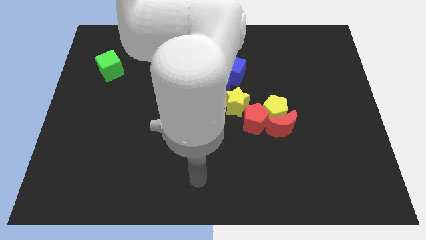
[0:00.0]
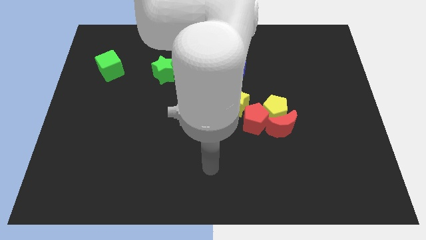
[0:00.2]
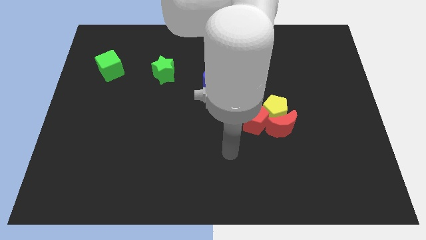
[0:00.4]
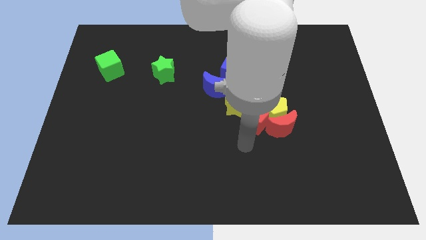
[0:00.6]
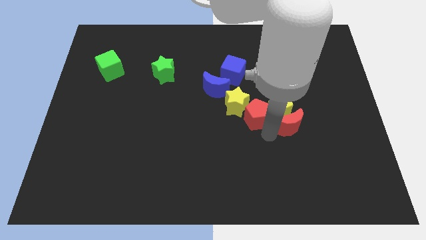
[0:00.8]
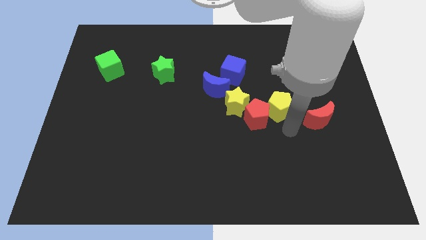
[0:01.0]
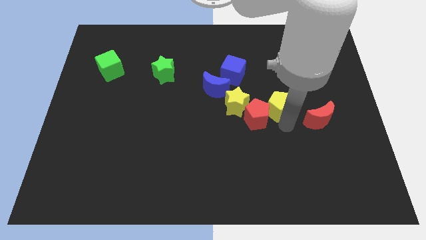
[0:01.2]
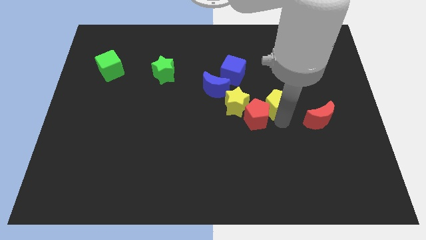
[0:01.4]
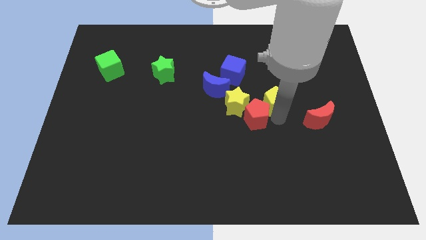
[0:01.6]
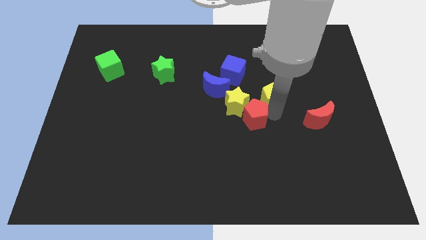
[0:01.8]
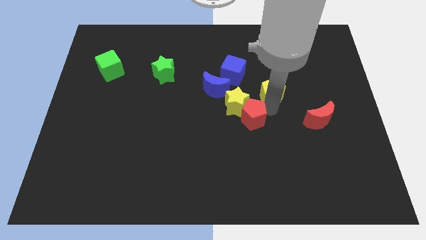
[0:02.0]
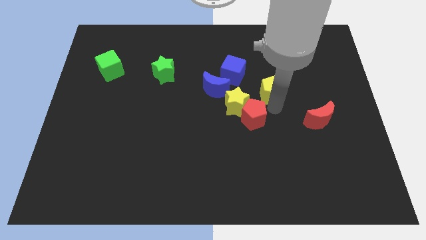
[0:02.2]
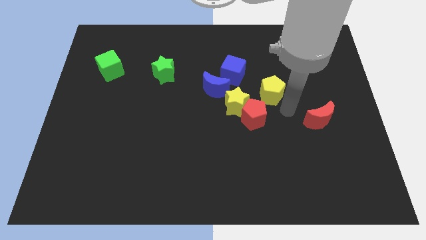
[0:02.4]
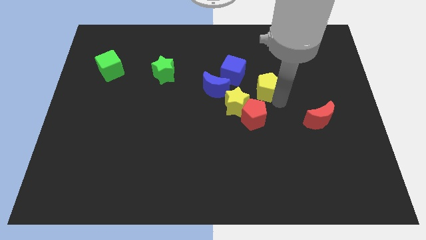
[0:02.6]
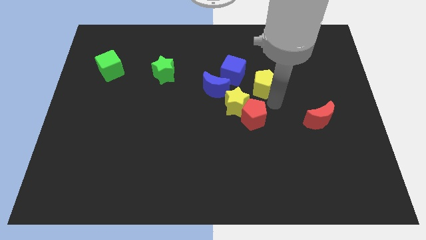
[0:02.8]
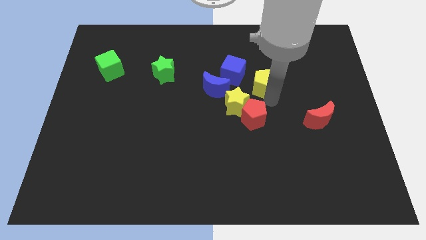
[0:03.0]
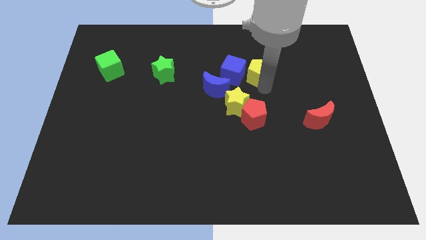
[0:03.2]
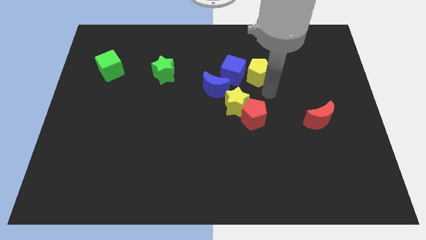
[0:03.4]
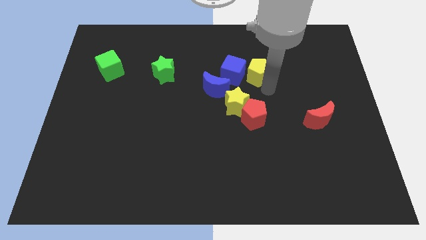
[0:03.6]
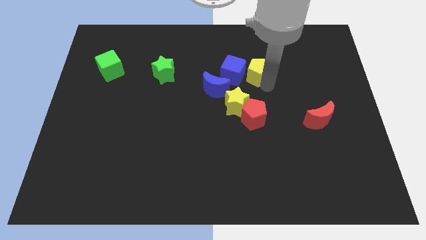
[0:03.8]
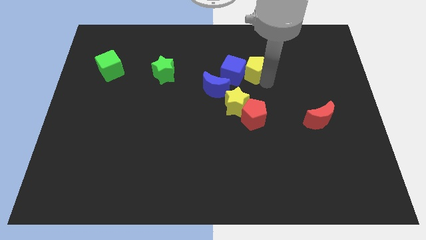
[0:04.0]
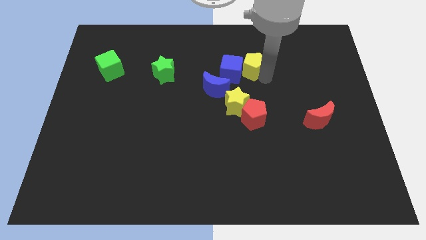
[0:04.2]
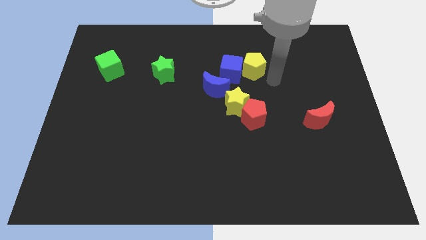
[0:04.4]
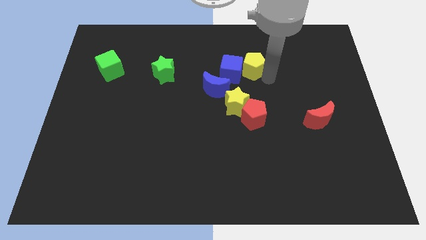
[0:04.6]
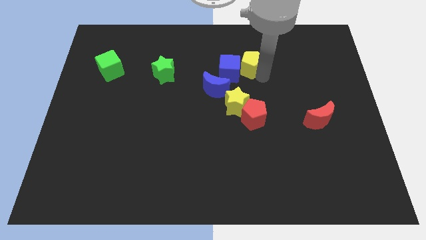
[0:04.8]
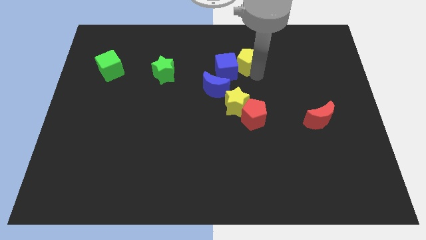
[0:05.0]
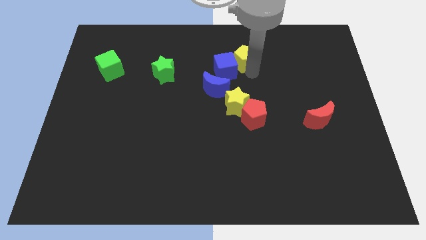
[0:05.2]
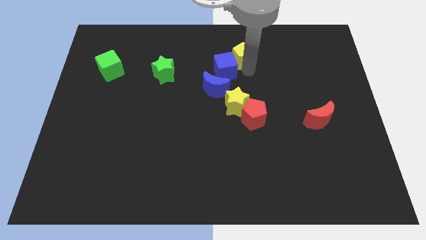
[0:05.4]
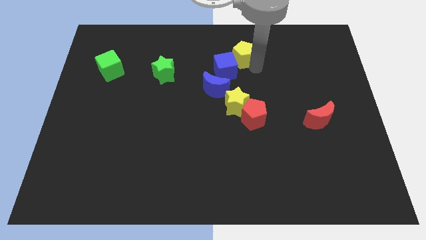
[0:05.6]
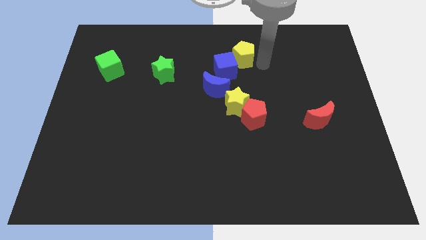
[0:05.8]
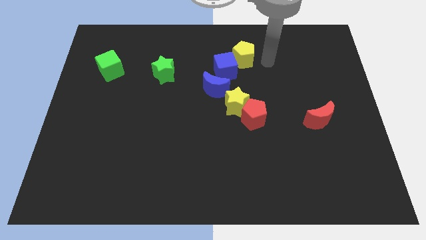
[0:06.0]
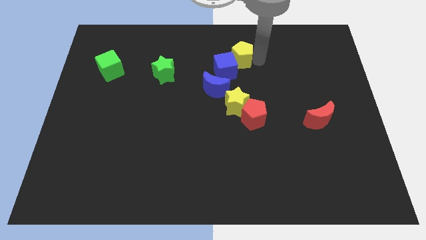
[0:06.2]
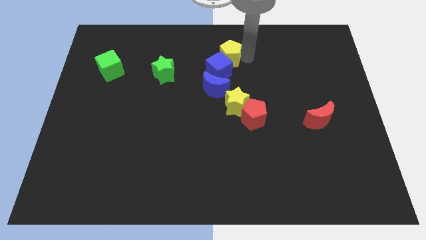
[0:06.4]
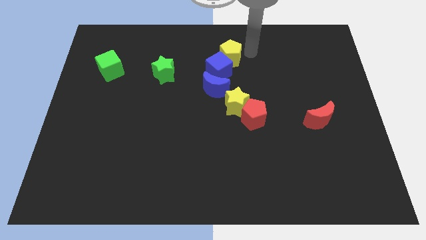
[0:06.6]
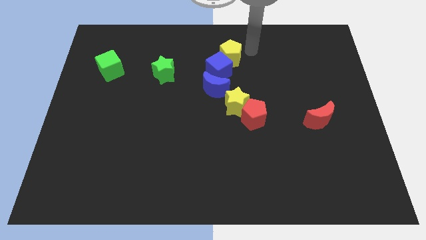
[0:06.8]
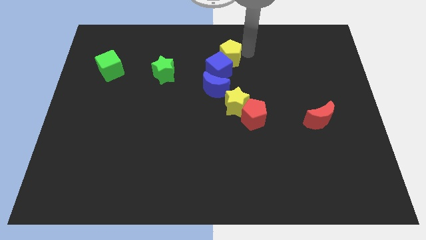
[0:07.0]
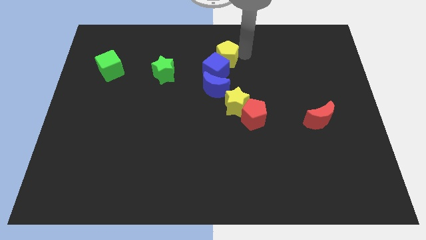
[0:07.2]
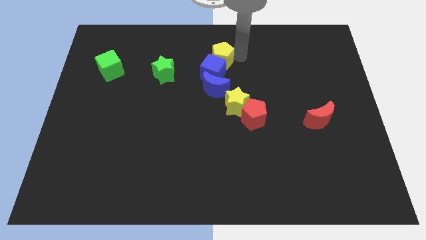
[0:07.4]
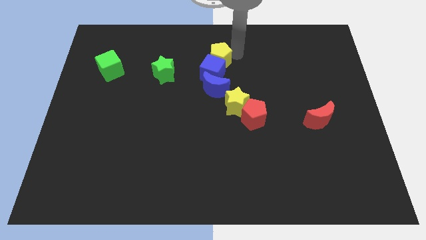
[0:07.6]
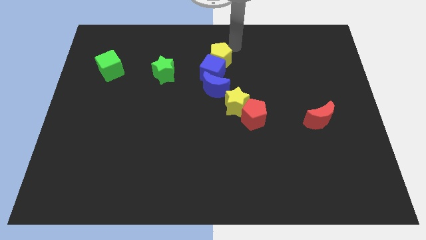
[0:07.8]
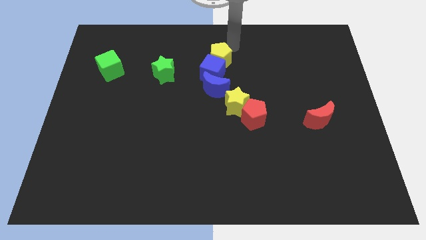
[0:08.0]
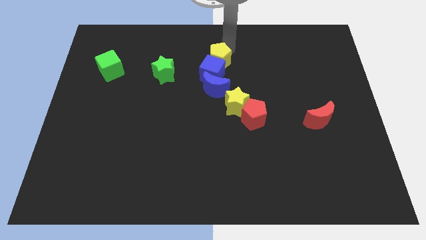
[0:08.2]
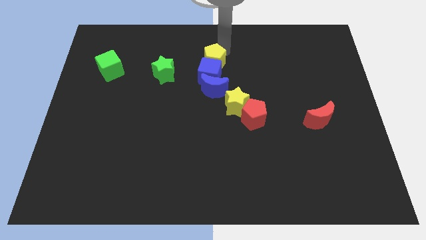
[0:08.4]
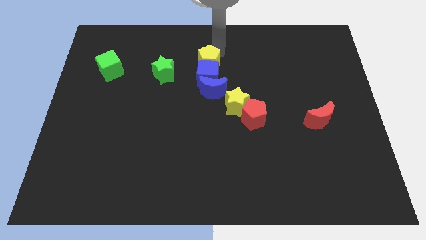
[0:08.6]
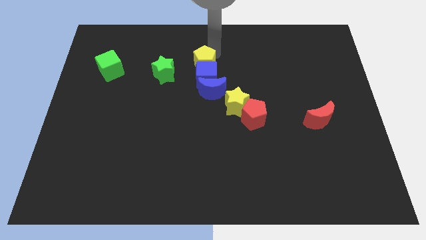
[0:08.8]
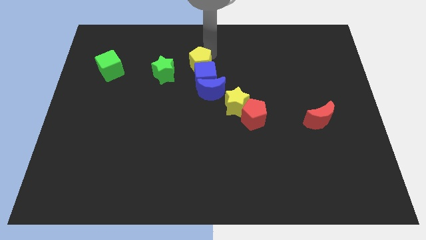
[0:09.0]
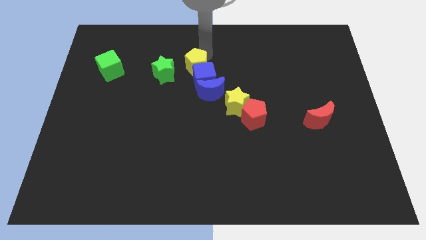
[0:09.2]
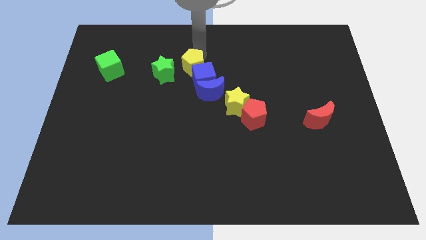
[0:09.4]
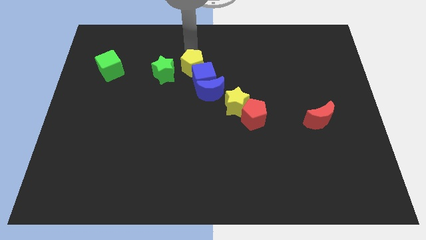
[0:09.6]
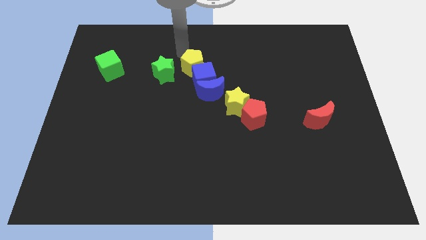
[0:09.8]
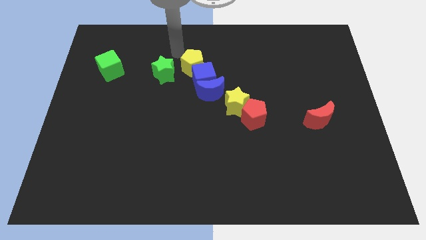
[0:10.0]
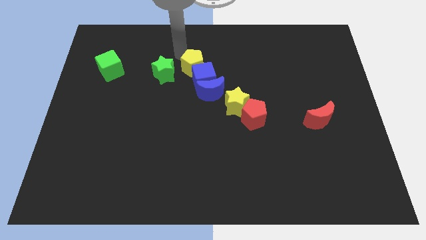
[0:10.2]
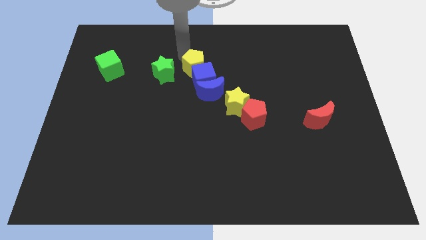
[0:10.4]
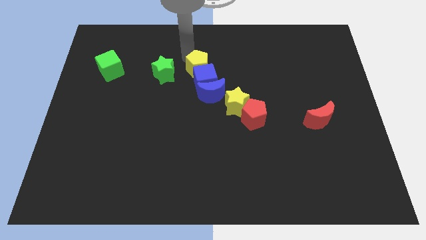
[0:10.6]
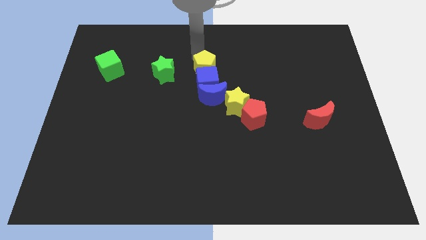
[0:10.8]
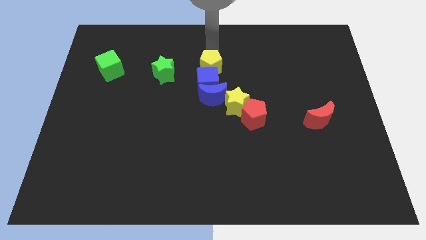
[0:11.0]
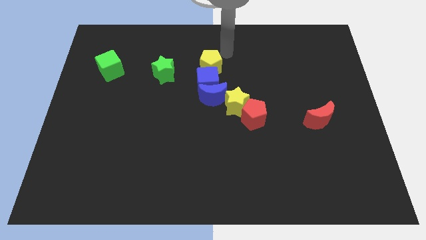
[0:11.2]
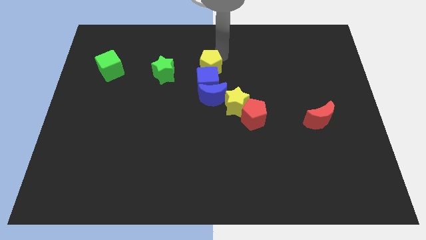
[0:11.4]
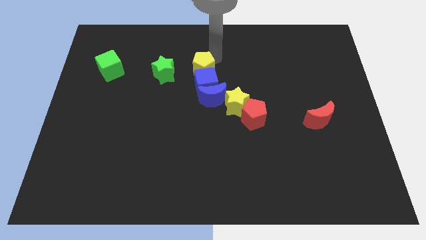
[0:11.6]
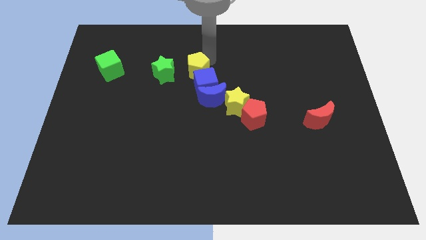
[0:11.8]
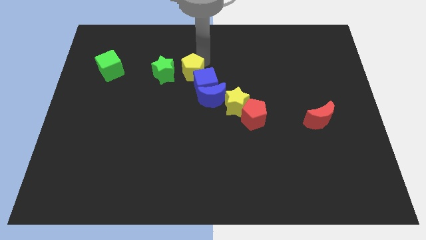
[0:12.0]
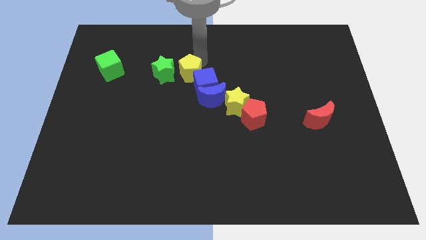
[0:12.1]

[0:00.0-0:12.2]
push the yellow pentagon diagonally down and to the right of the green star
